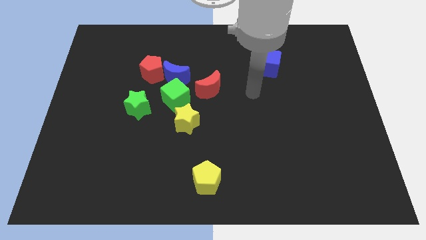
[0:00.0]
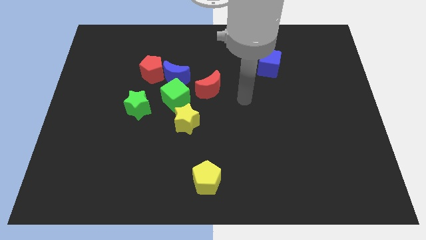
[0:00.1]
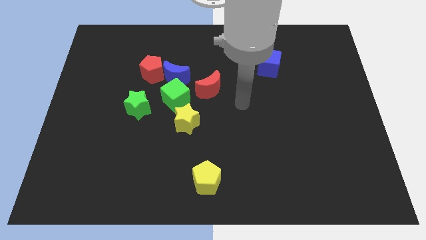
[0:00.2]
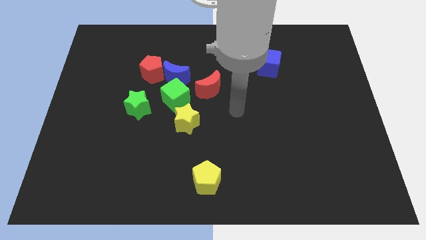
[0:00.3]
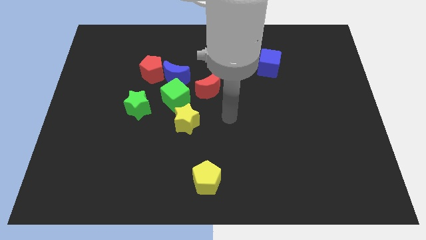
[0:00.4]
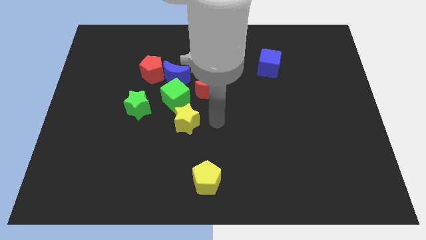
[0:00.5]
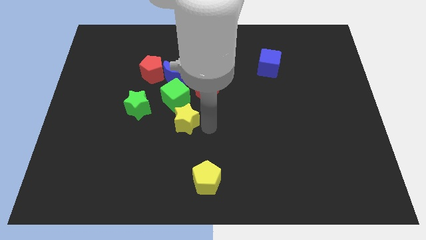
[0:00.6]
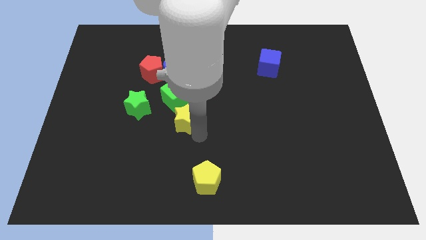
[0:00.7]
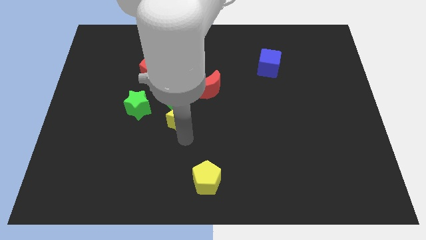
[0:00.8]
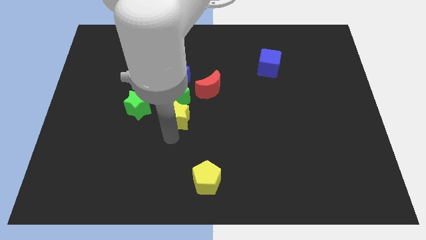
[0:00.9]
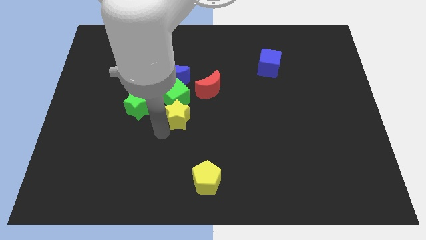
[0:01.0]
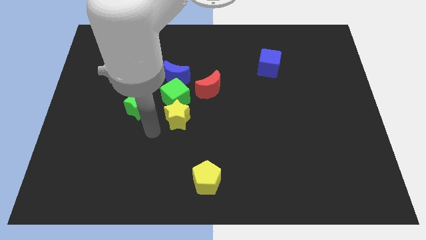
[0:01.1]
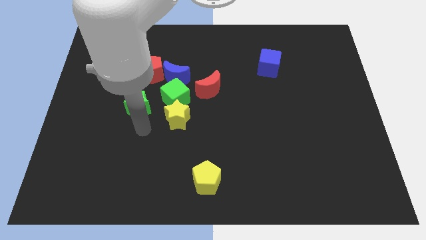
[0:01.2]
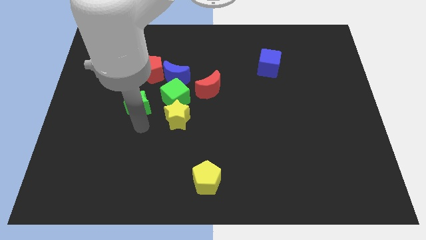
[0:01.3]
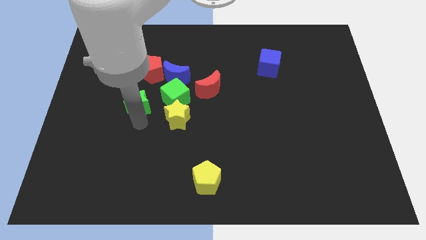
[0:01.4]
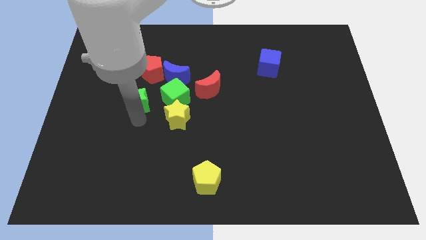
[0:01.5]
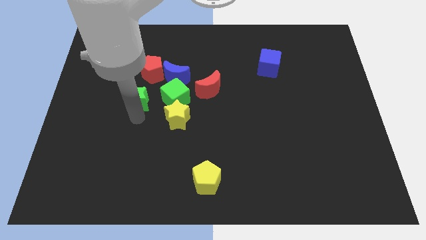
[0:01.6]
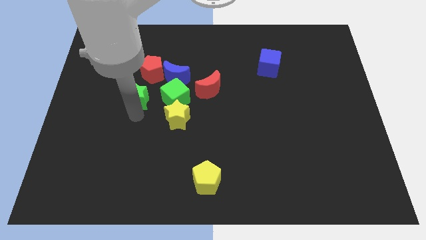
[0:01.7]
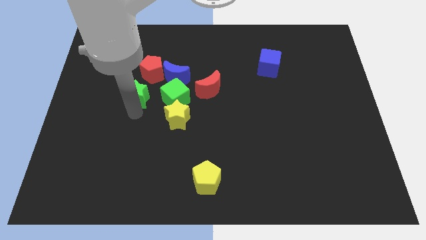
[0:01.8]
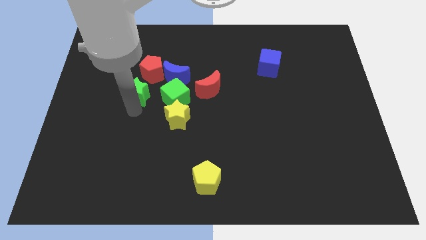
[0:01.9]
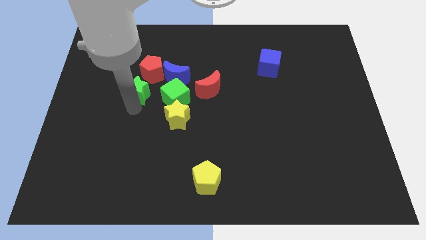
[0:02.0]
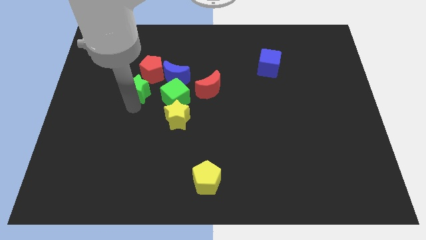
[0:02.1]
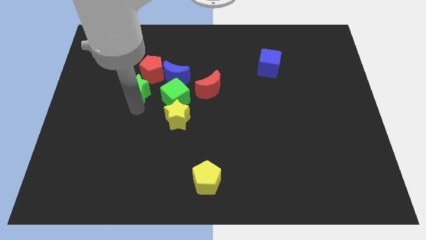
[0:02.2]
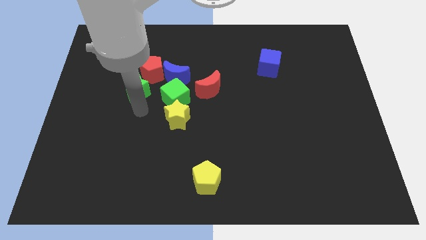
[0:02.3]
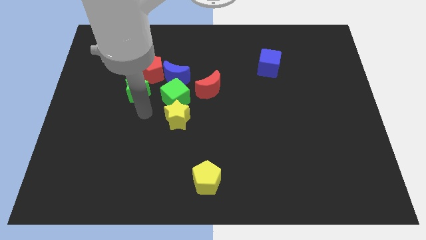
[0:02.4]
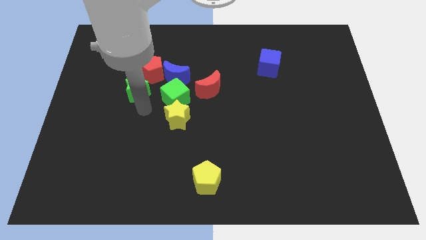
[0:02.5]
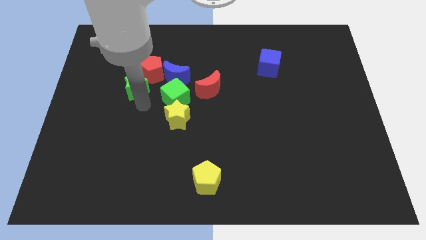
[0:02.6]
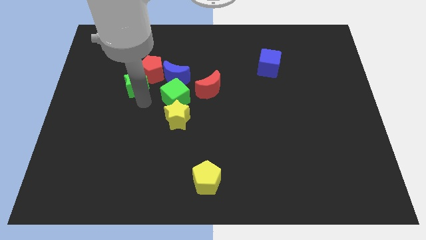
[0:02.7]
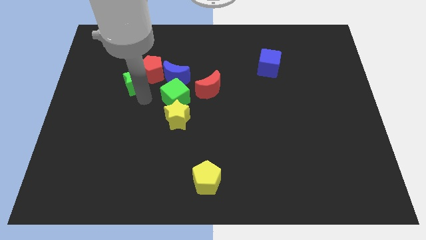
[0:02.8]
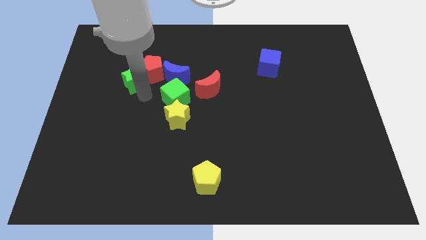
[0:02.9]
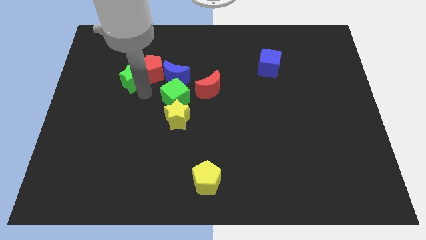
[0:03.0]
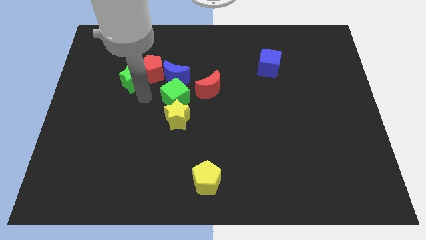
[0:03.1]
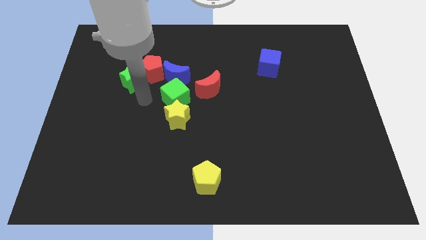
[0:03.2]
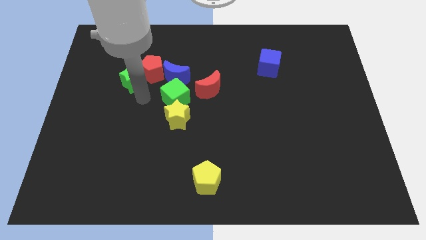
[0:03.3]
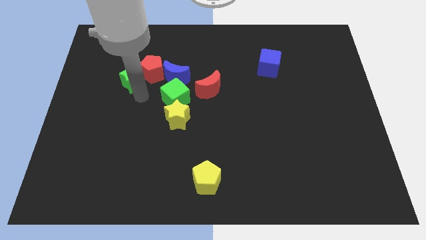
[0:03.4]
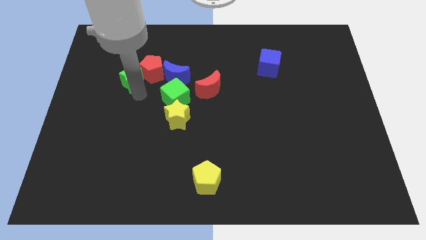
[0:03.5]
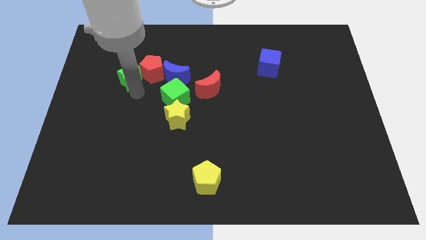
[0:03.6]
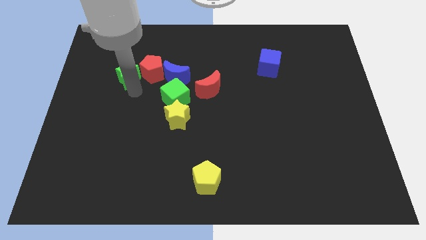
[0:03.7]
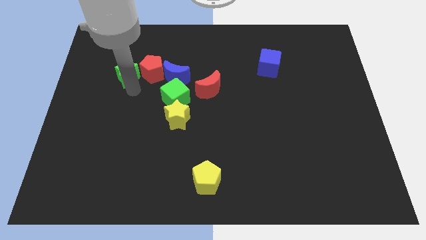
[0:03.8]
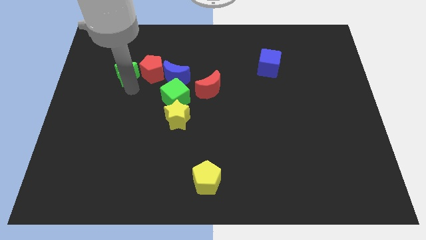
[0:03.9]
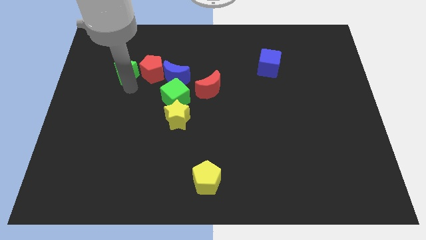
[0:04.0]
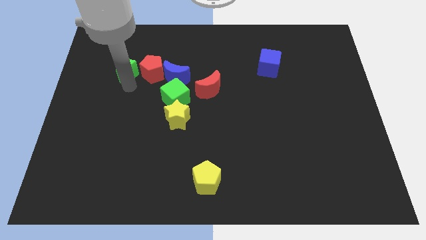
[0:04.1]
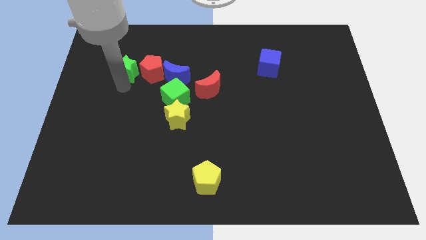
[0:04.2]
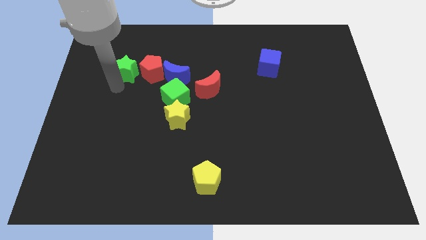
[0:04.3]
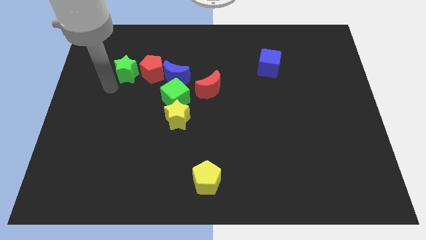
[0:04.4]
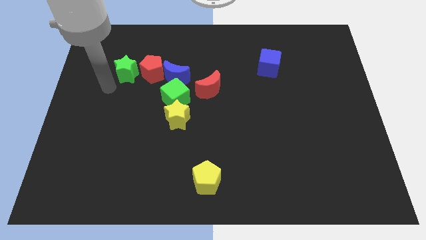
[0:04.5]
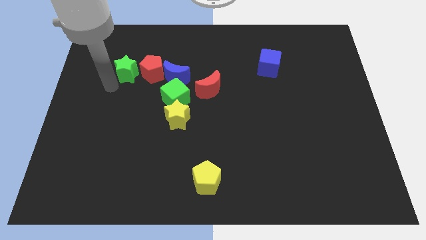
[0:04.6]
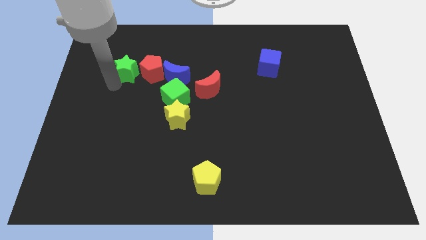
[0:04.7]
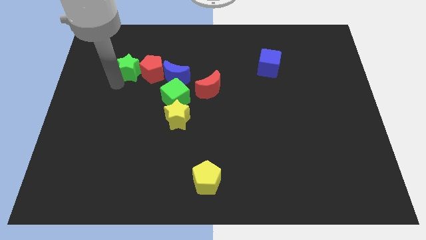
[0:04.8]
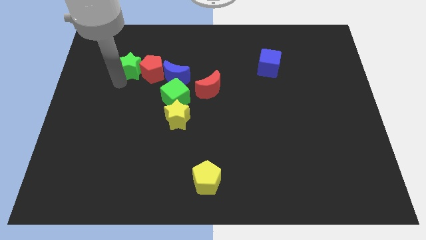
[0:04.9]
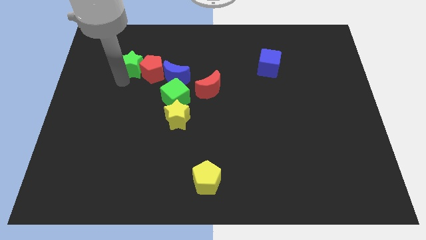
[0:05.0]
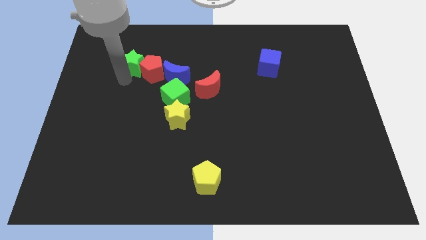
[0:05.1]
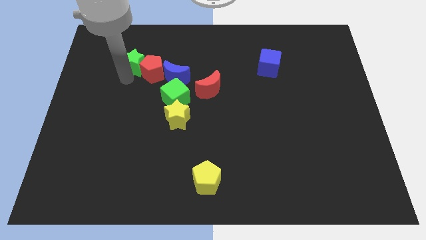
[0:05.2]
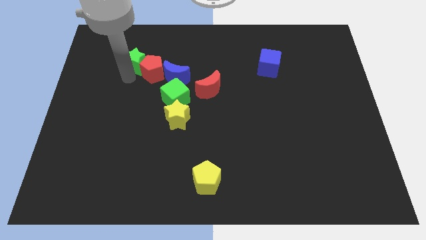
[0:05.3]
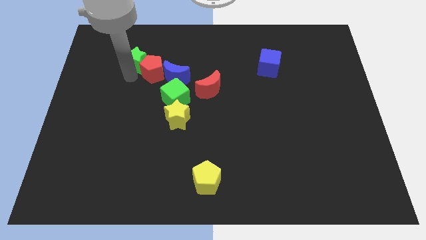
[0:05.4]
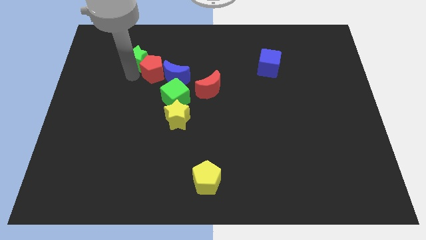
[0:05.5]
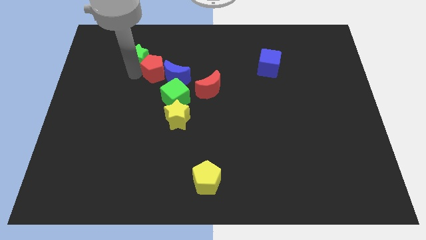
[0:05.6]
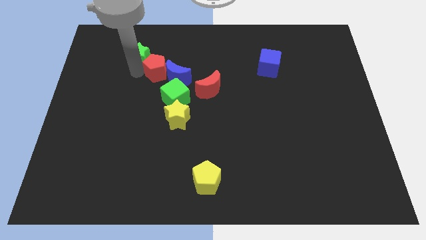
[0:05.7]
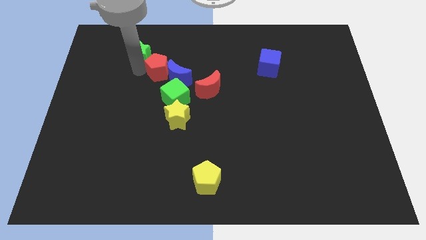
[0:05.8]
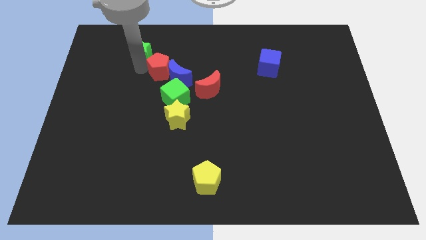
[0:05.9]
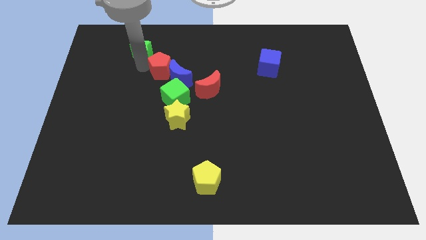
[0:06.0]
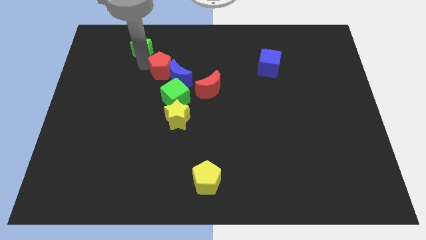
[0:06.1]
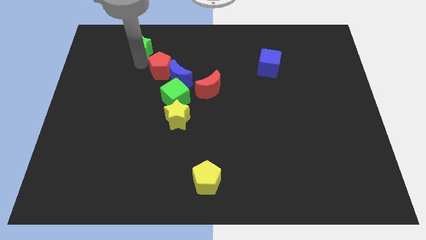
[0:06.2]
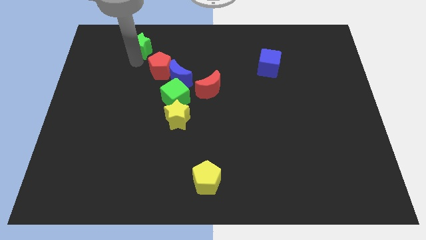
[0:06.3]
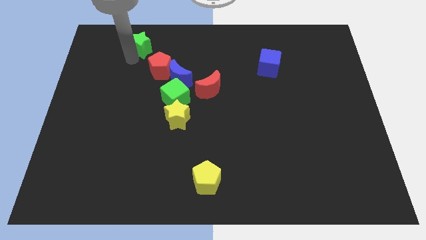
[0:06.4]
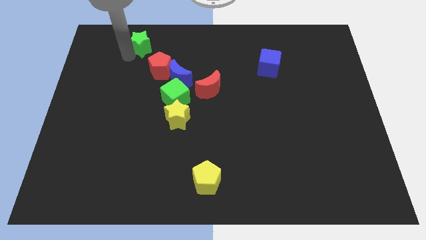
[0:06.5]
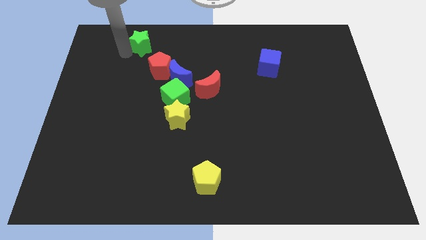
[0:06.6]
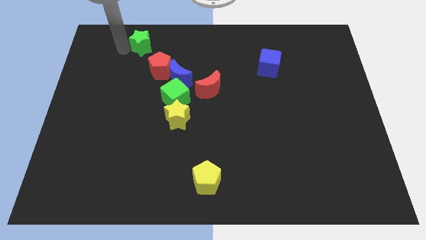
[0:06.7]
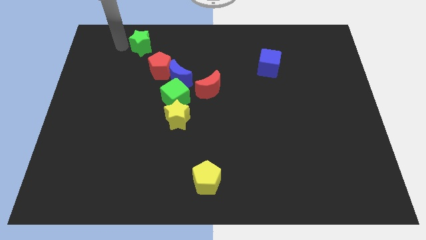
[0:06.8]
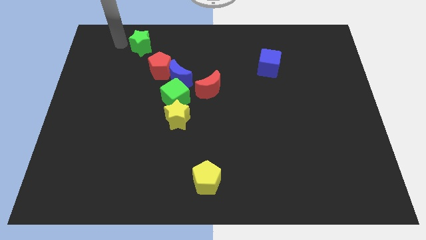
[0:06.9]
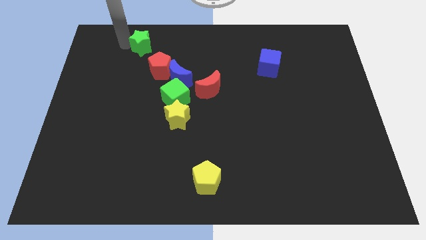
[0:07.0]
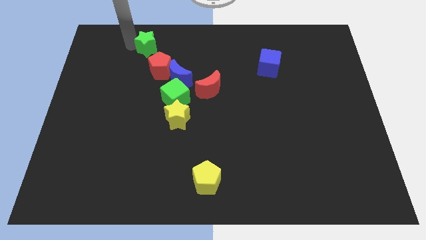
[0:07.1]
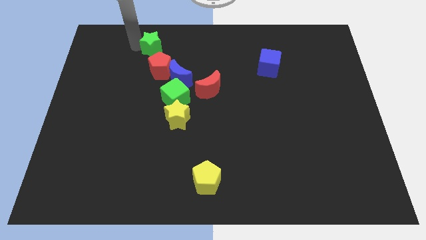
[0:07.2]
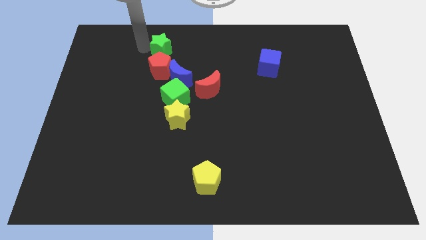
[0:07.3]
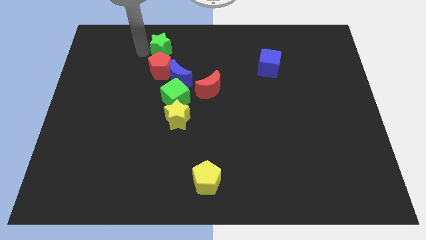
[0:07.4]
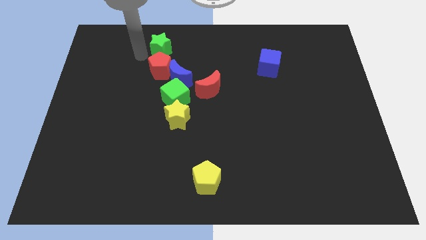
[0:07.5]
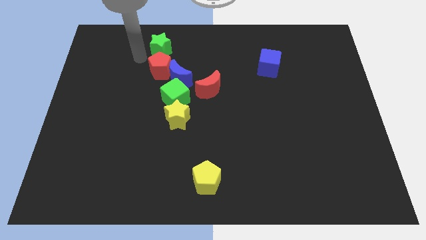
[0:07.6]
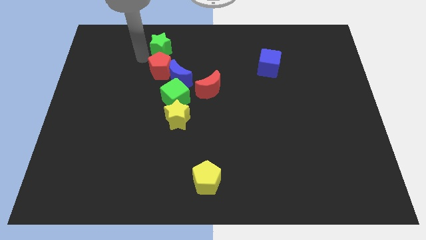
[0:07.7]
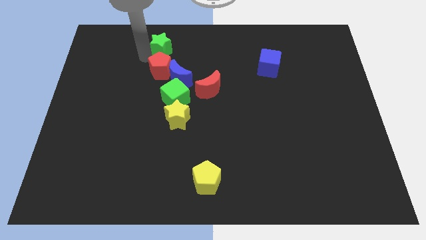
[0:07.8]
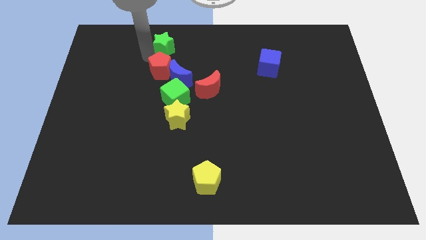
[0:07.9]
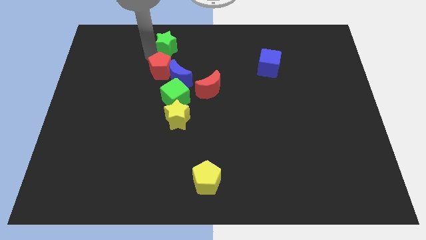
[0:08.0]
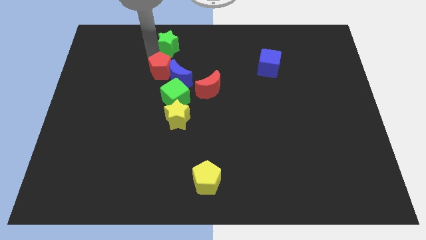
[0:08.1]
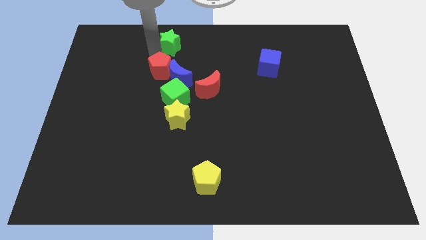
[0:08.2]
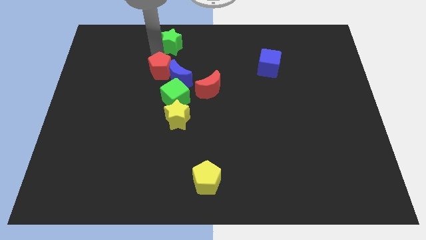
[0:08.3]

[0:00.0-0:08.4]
move the green star to the top
